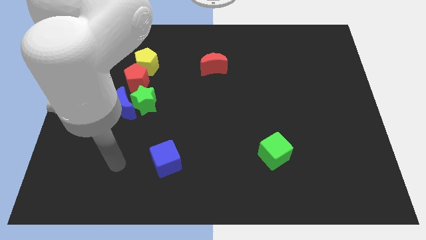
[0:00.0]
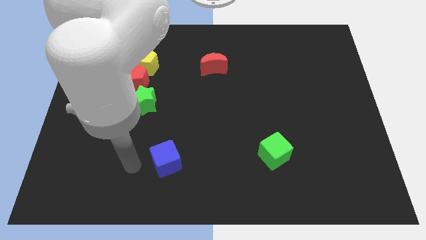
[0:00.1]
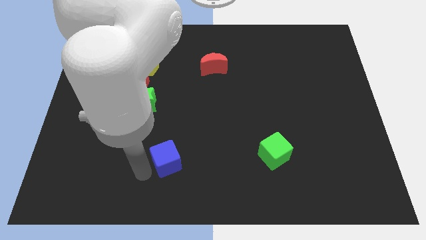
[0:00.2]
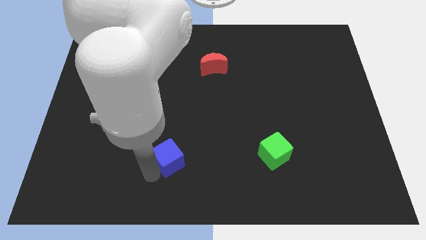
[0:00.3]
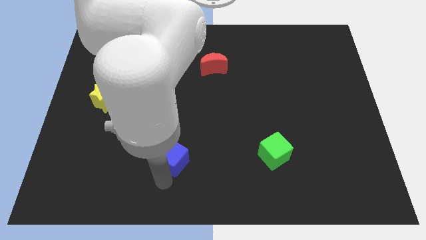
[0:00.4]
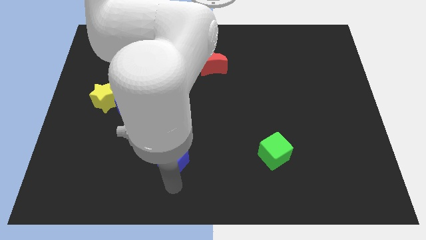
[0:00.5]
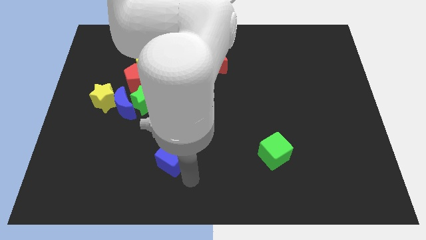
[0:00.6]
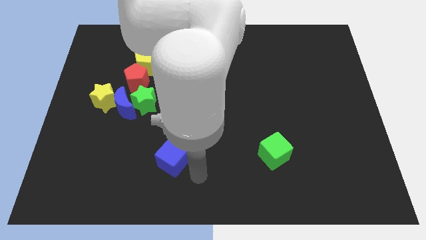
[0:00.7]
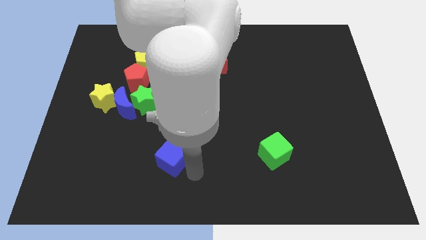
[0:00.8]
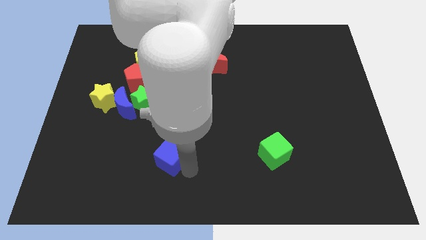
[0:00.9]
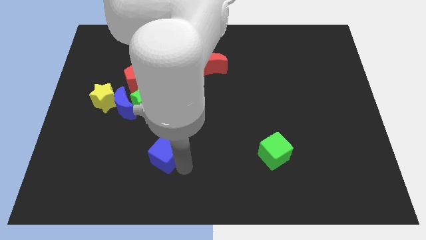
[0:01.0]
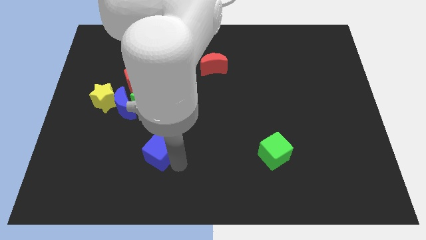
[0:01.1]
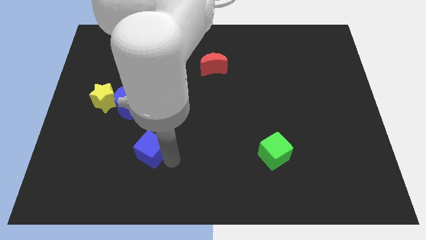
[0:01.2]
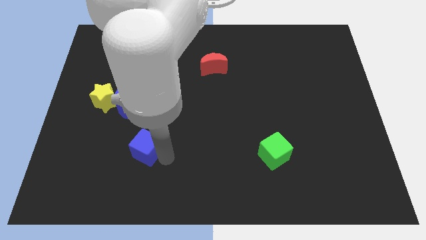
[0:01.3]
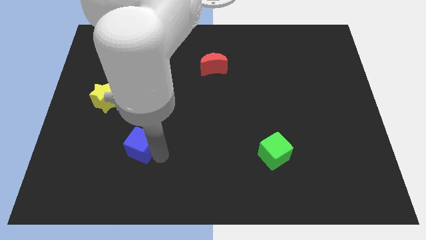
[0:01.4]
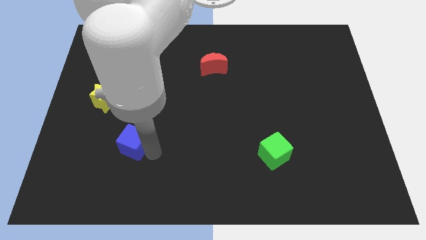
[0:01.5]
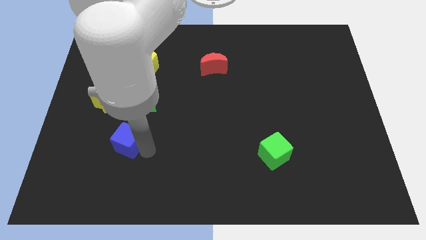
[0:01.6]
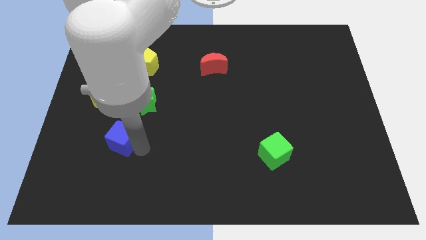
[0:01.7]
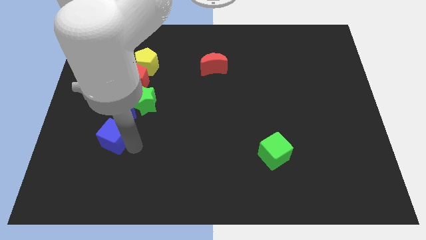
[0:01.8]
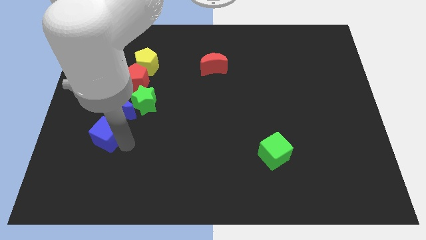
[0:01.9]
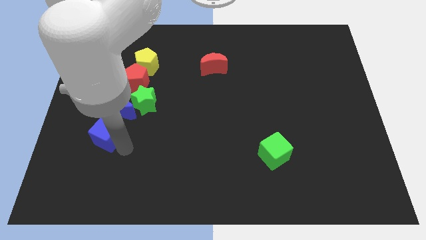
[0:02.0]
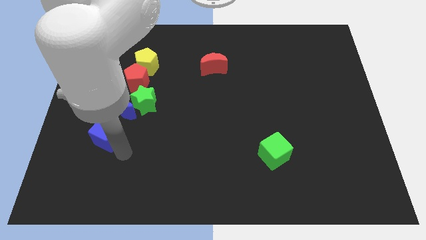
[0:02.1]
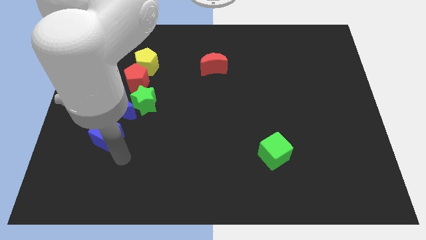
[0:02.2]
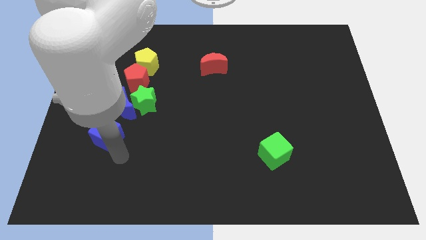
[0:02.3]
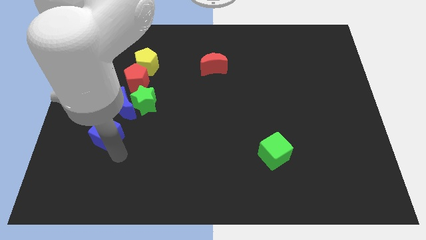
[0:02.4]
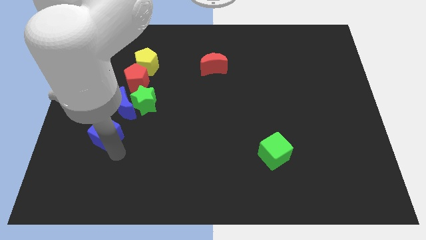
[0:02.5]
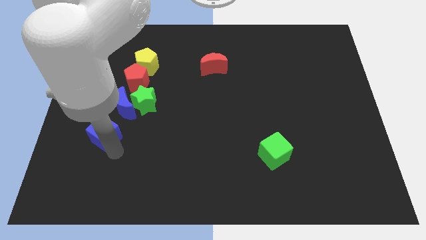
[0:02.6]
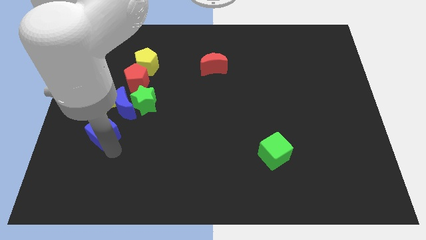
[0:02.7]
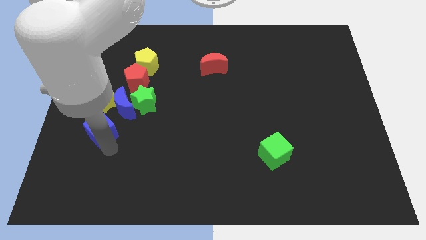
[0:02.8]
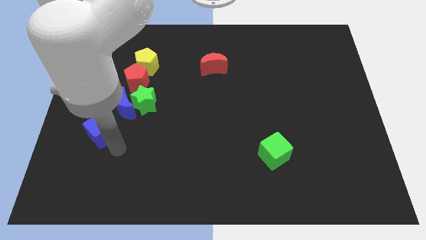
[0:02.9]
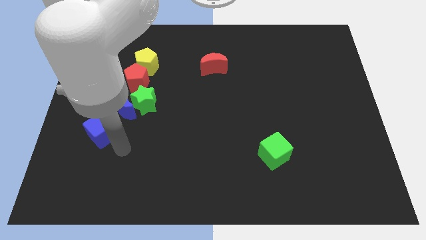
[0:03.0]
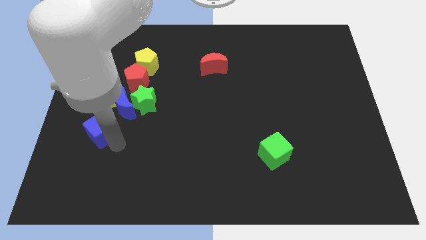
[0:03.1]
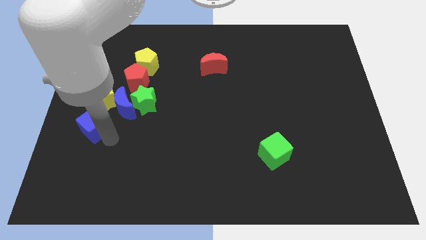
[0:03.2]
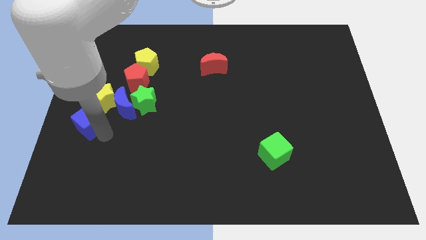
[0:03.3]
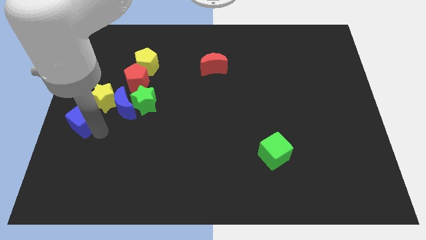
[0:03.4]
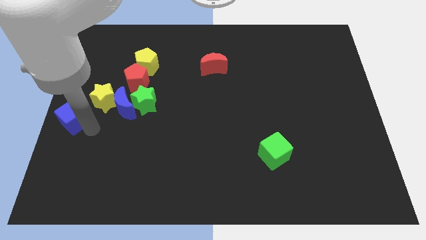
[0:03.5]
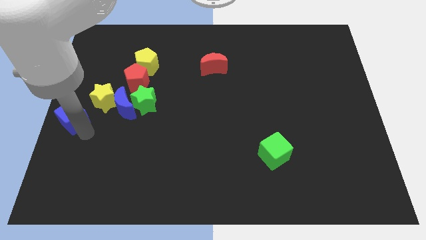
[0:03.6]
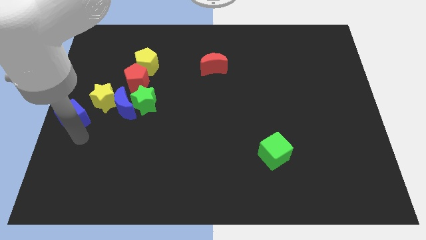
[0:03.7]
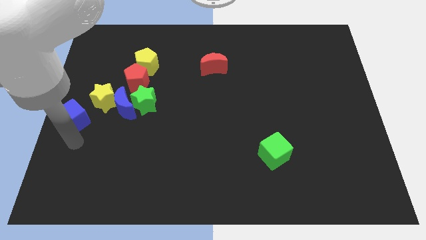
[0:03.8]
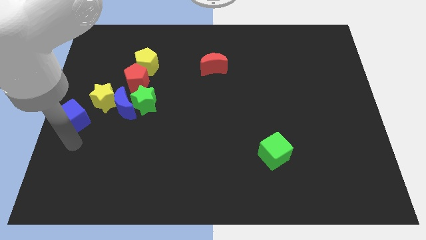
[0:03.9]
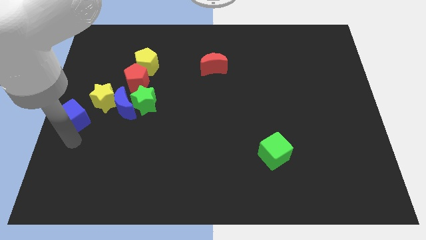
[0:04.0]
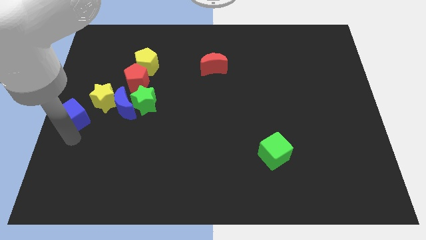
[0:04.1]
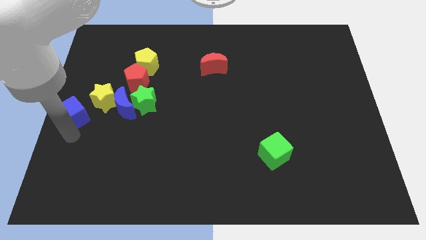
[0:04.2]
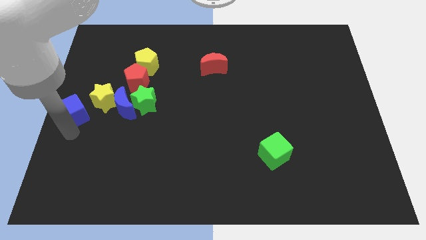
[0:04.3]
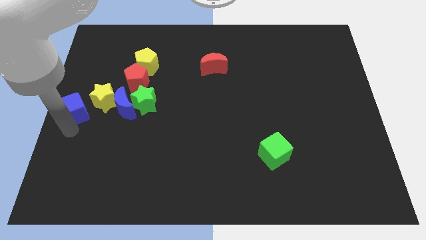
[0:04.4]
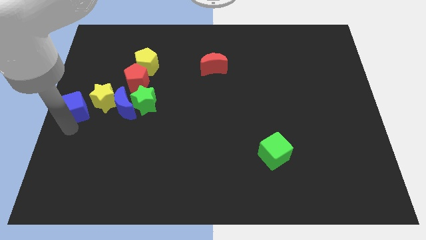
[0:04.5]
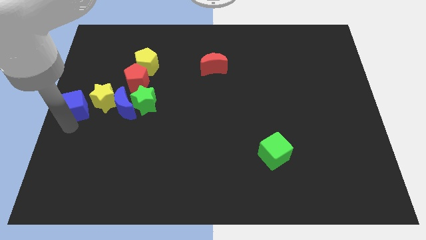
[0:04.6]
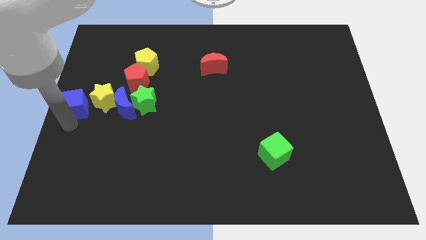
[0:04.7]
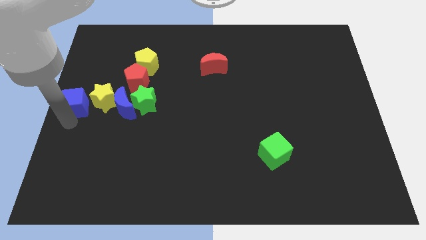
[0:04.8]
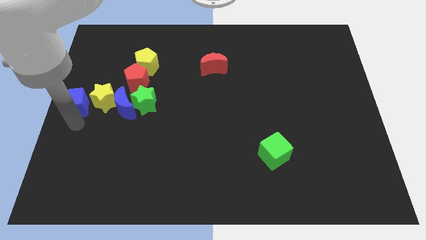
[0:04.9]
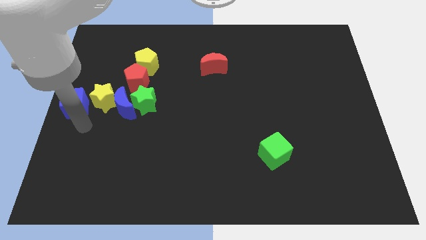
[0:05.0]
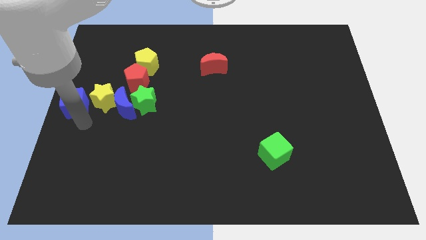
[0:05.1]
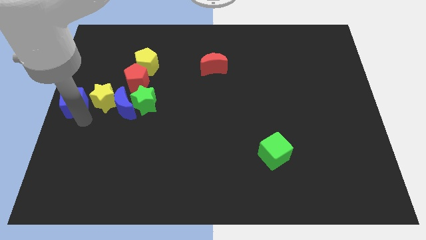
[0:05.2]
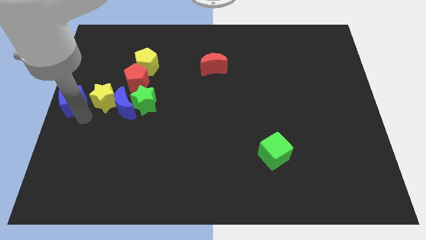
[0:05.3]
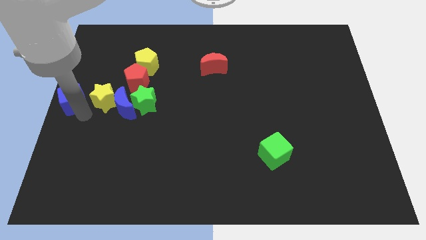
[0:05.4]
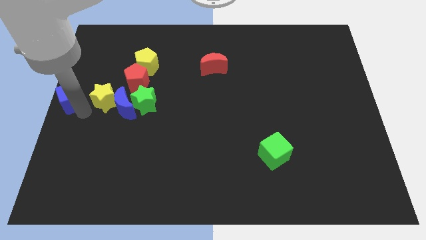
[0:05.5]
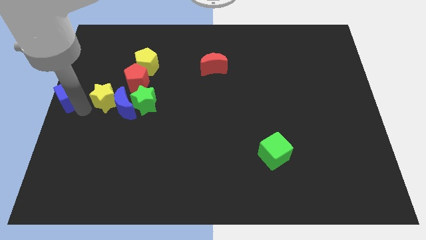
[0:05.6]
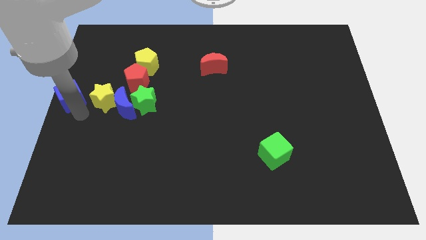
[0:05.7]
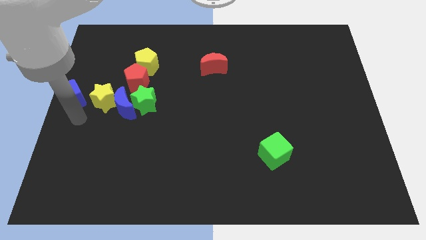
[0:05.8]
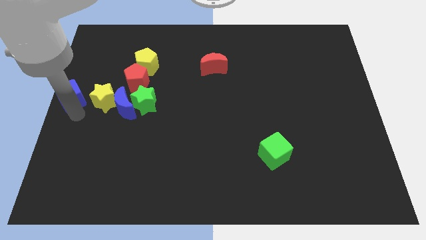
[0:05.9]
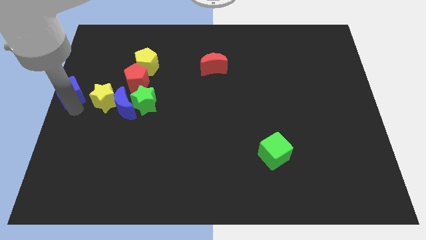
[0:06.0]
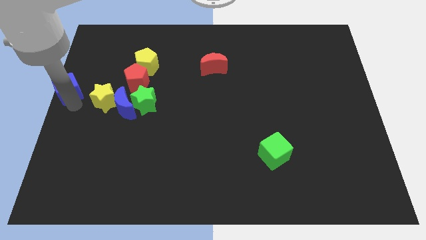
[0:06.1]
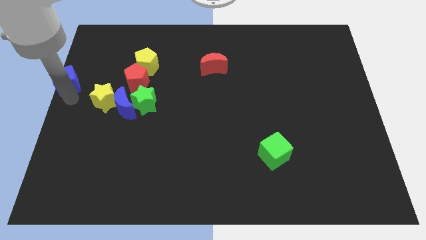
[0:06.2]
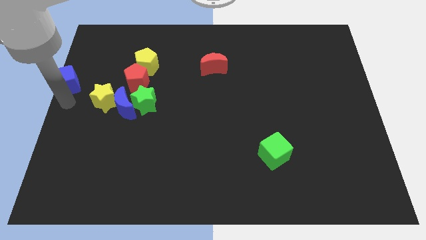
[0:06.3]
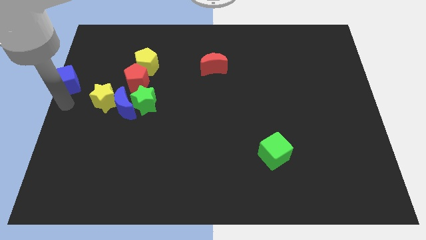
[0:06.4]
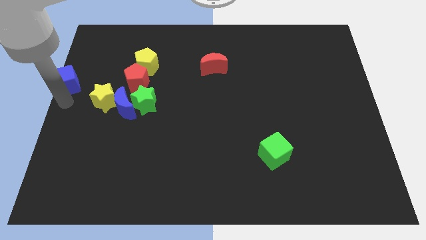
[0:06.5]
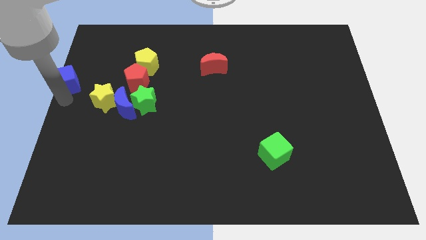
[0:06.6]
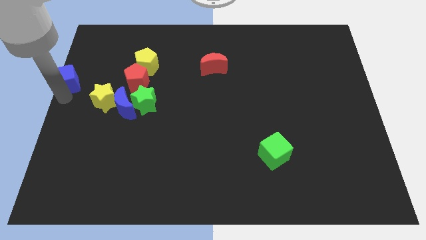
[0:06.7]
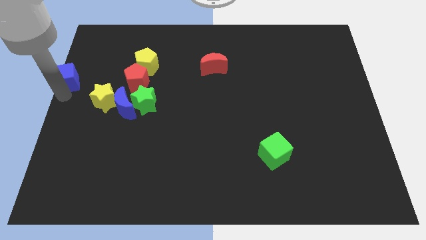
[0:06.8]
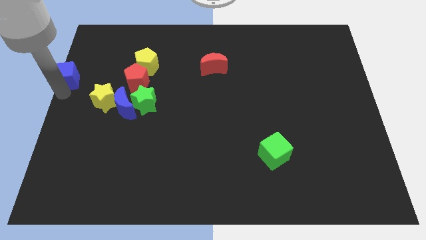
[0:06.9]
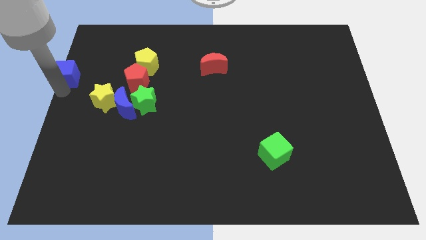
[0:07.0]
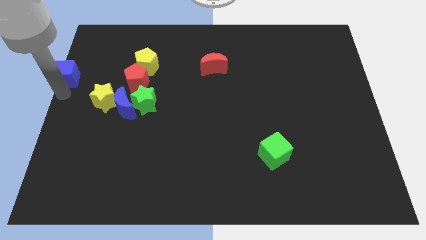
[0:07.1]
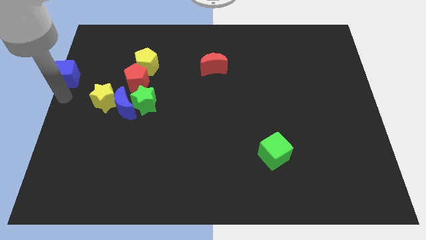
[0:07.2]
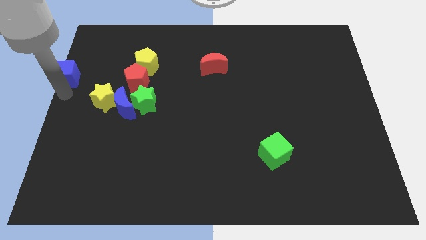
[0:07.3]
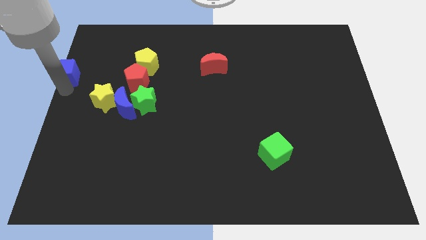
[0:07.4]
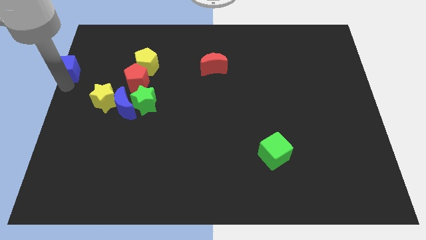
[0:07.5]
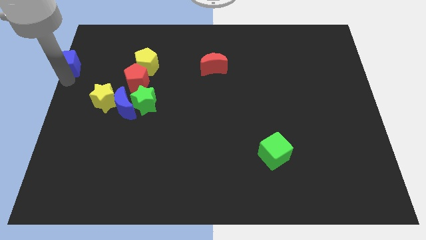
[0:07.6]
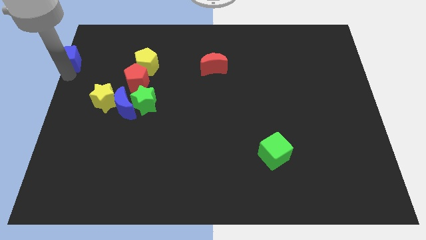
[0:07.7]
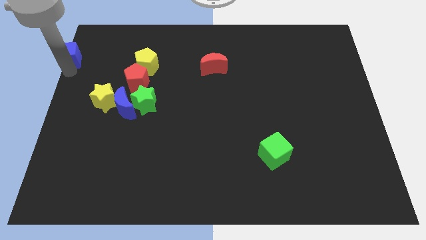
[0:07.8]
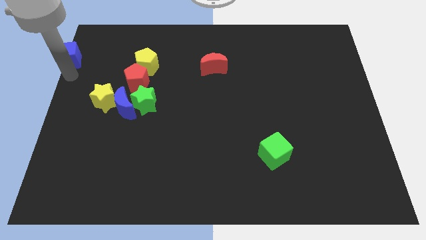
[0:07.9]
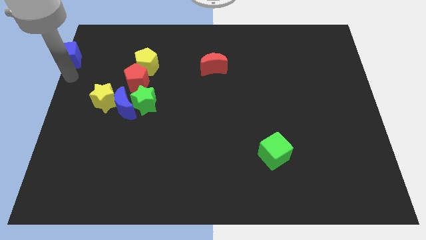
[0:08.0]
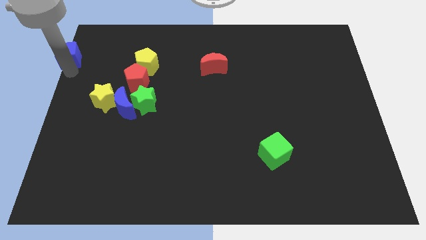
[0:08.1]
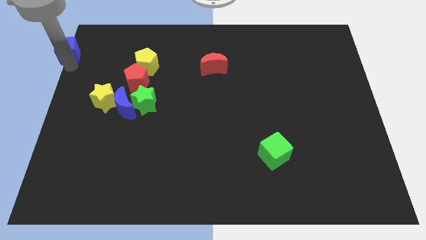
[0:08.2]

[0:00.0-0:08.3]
move the blue cube to the top left corner
